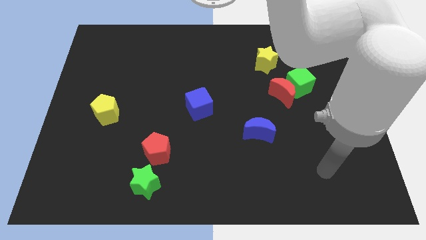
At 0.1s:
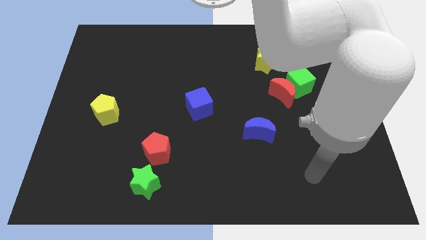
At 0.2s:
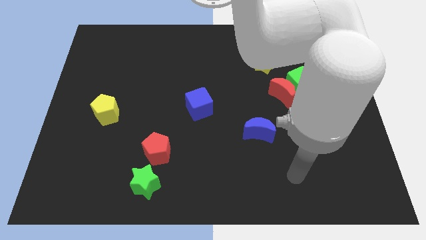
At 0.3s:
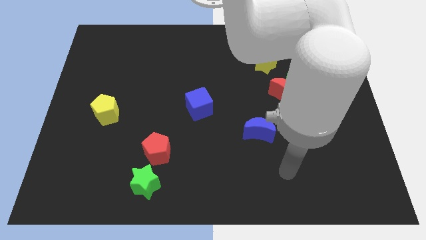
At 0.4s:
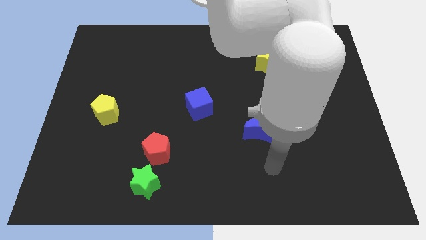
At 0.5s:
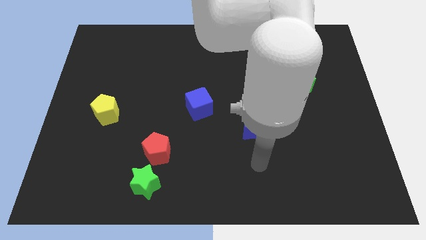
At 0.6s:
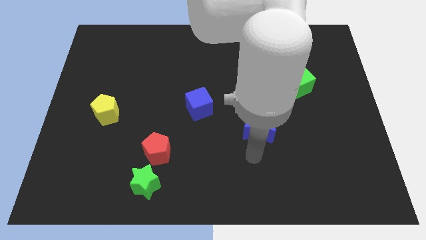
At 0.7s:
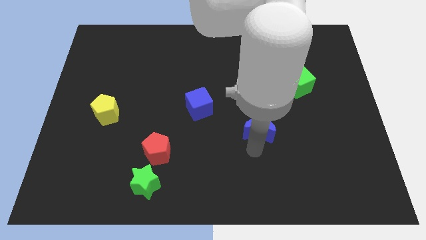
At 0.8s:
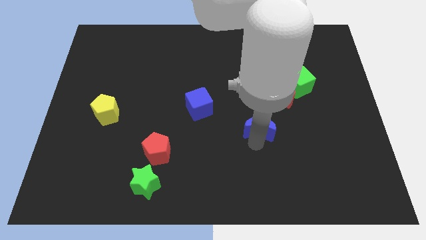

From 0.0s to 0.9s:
move the blue moon diagonally down and to the left of the red moon

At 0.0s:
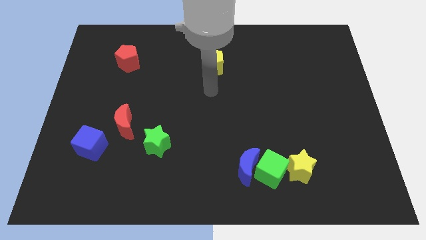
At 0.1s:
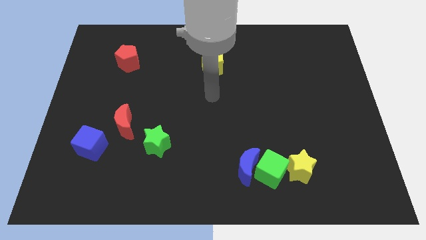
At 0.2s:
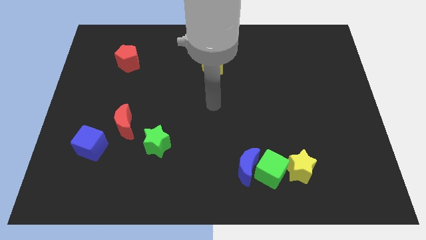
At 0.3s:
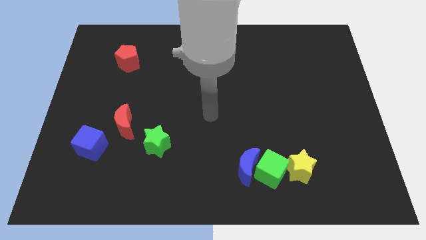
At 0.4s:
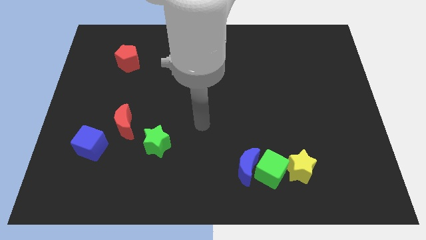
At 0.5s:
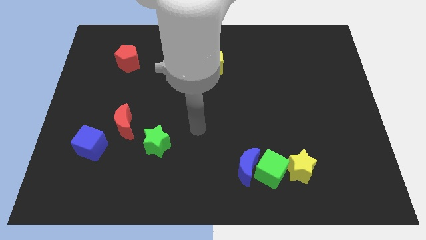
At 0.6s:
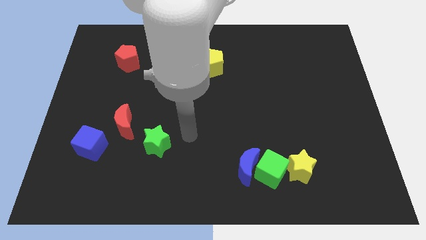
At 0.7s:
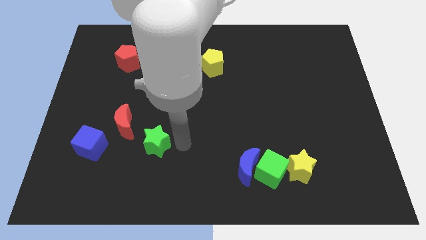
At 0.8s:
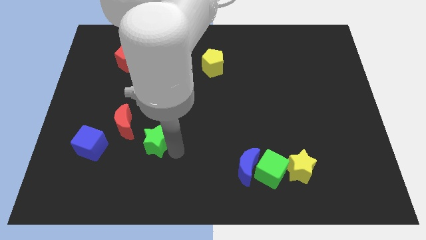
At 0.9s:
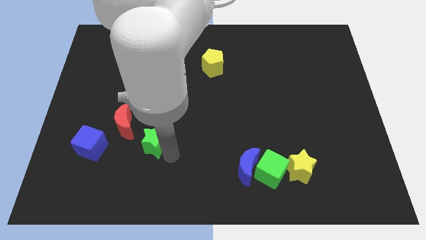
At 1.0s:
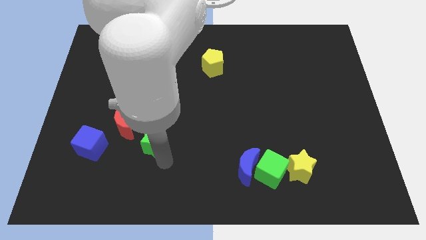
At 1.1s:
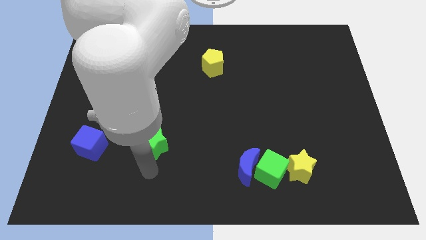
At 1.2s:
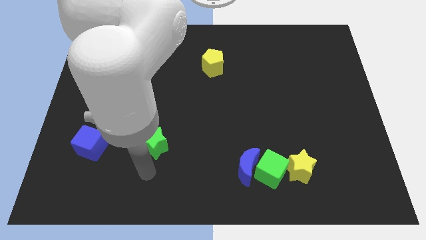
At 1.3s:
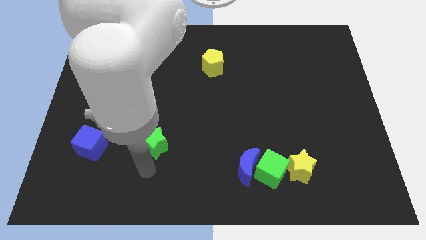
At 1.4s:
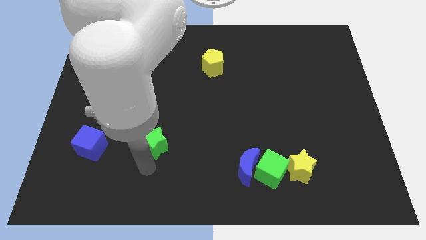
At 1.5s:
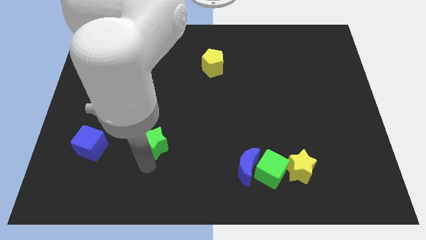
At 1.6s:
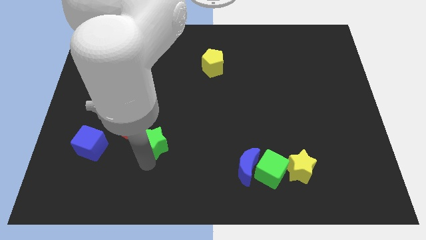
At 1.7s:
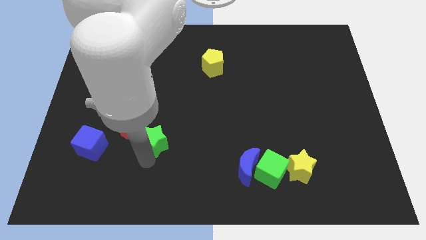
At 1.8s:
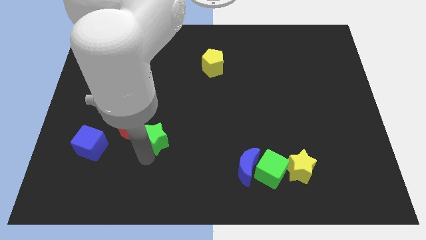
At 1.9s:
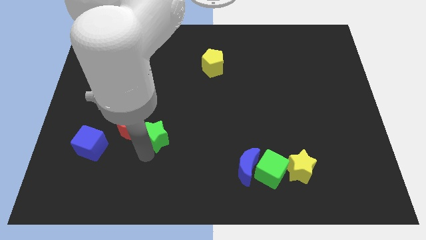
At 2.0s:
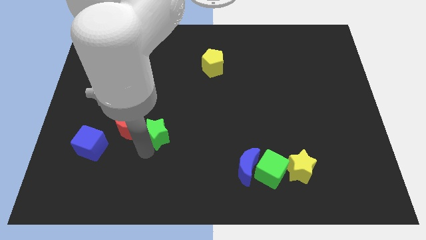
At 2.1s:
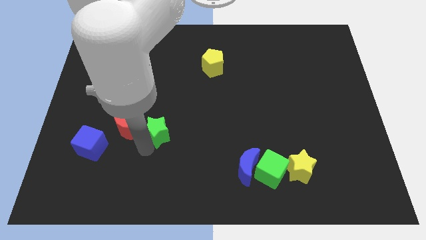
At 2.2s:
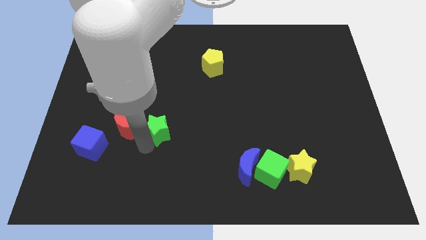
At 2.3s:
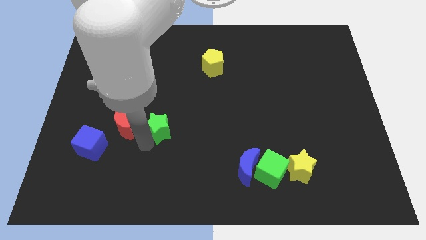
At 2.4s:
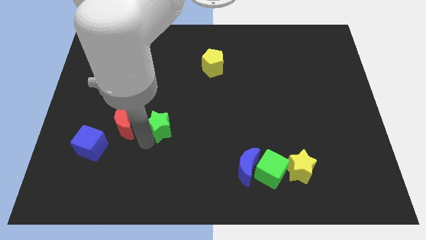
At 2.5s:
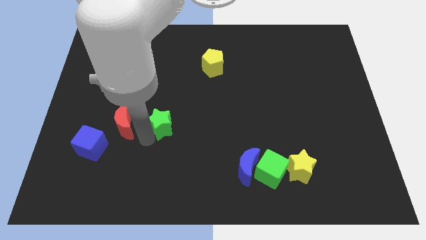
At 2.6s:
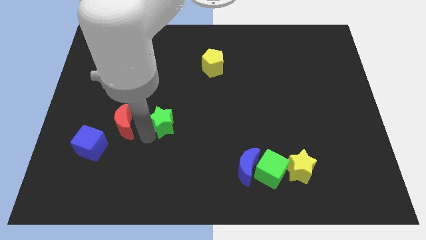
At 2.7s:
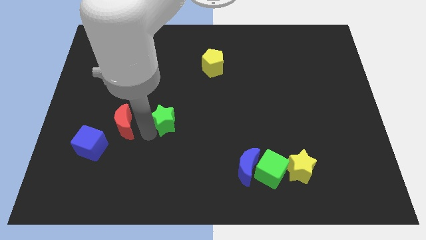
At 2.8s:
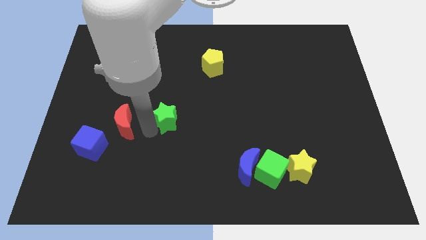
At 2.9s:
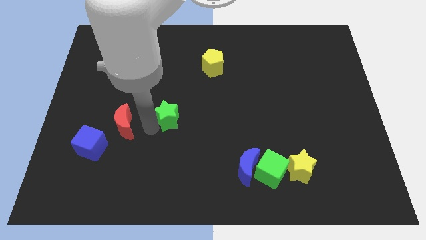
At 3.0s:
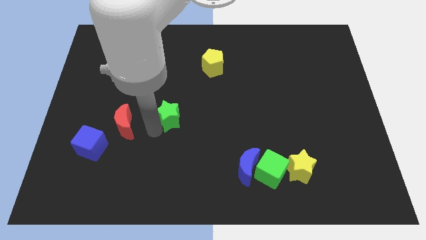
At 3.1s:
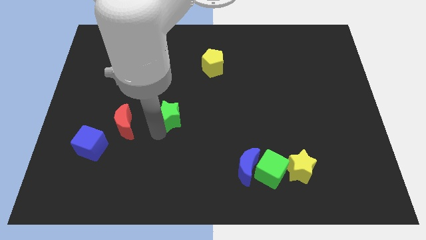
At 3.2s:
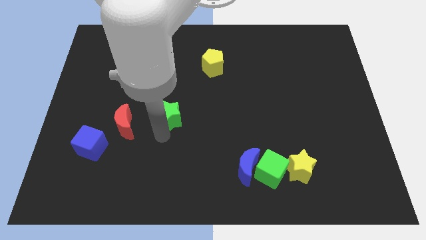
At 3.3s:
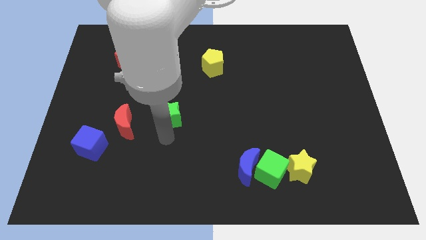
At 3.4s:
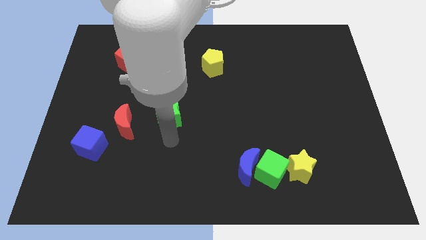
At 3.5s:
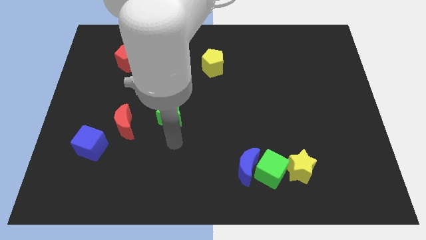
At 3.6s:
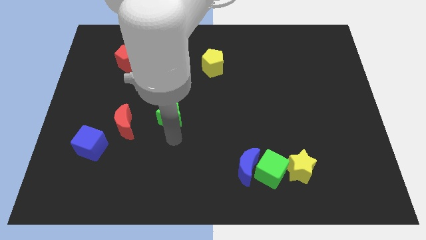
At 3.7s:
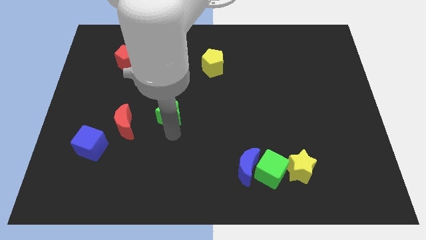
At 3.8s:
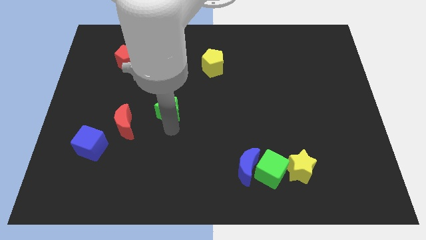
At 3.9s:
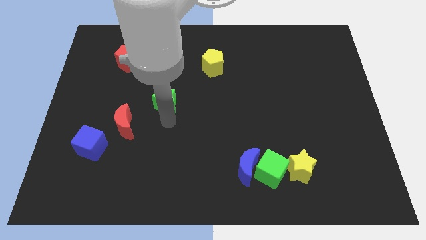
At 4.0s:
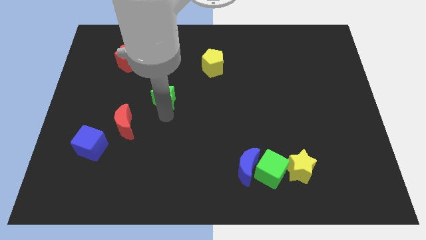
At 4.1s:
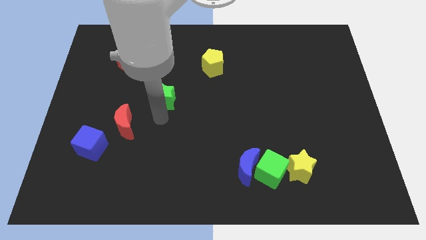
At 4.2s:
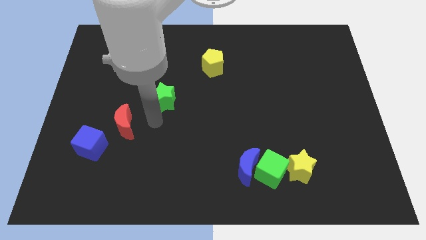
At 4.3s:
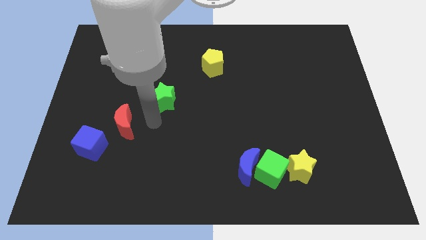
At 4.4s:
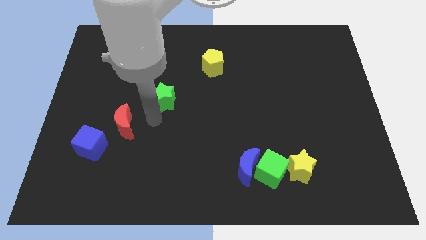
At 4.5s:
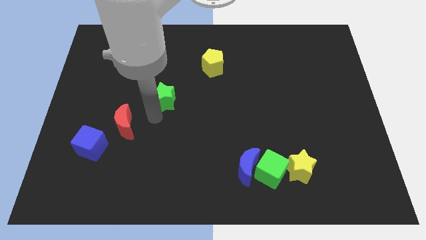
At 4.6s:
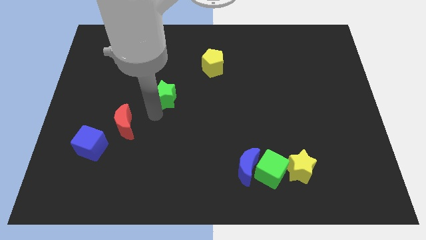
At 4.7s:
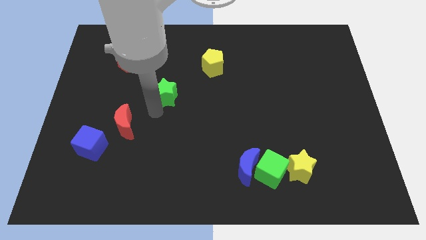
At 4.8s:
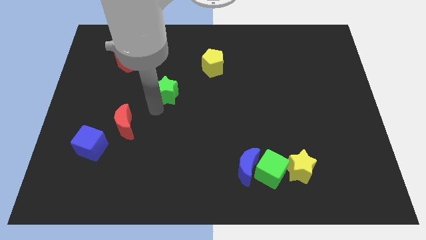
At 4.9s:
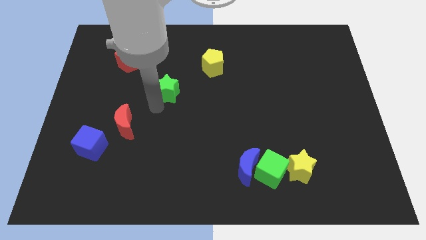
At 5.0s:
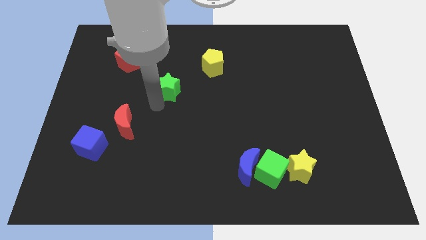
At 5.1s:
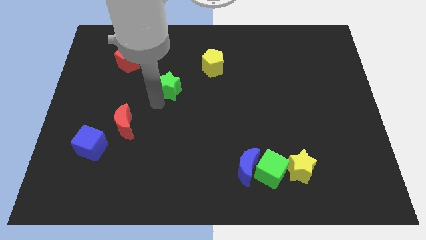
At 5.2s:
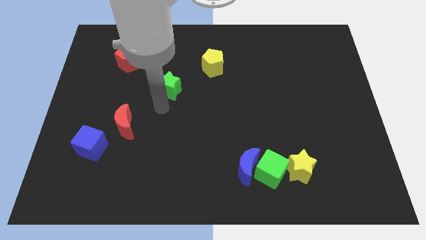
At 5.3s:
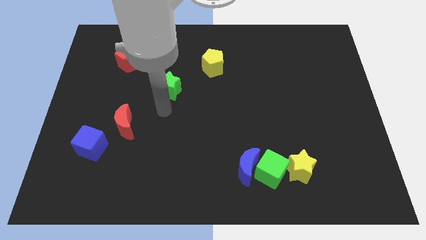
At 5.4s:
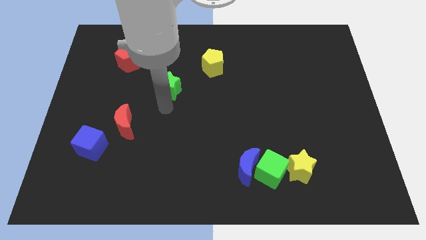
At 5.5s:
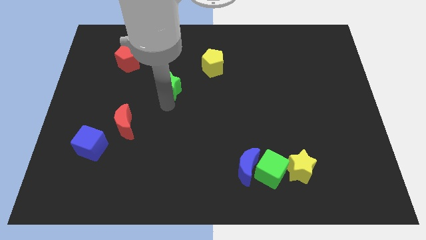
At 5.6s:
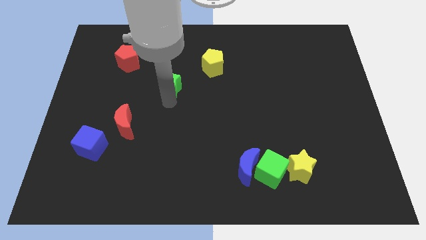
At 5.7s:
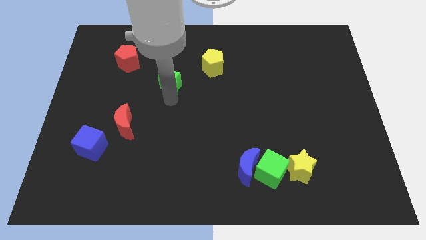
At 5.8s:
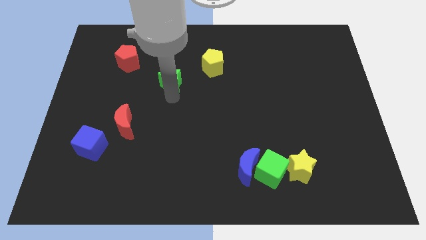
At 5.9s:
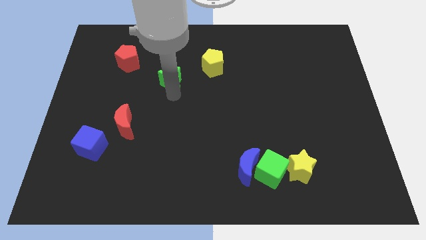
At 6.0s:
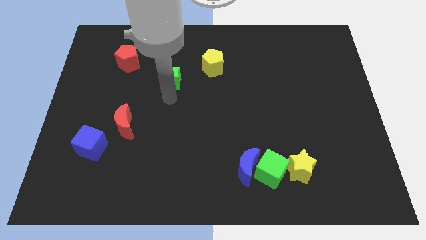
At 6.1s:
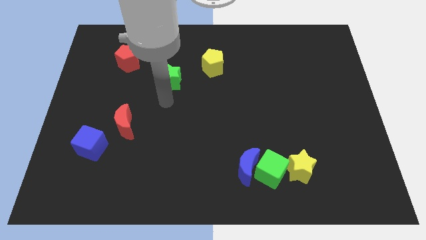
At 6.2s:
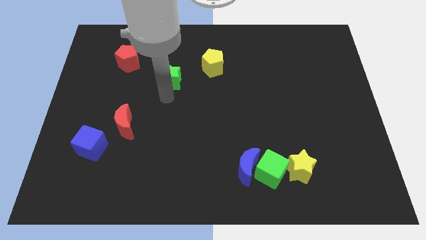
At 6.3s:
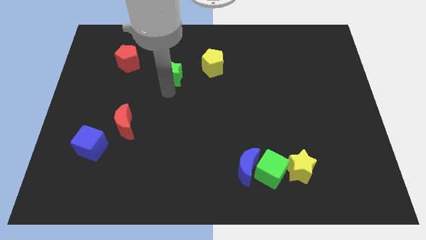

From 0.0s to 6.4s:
push the green star to the left side of the yellow pentagon

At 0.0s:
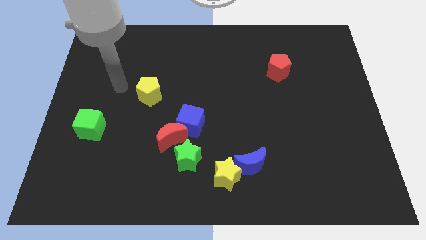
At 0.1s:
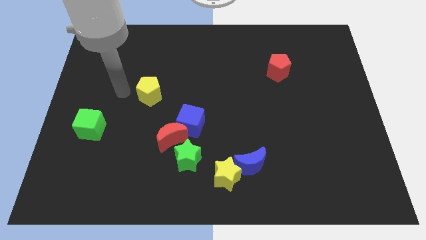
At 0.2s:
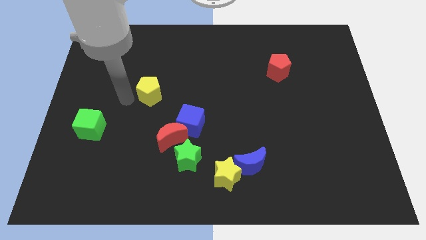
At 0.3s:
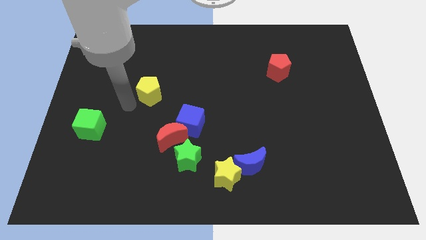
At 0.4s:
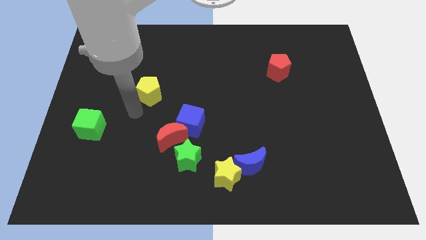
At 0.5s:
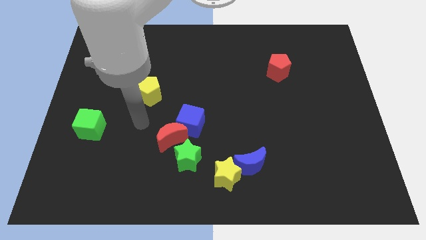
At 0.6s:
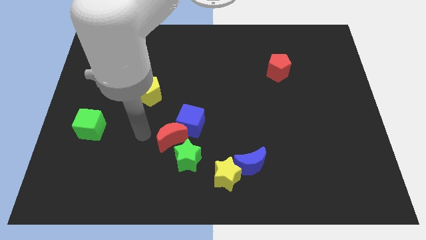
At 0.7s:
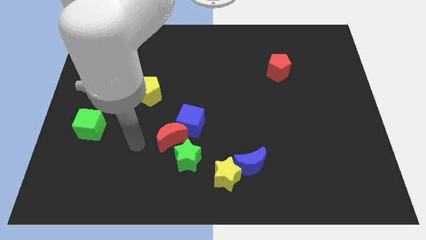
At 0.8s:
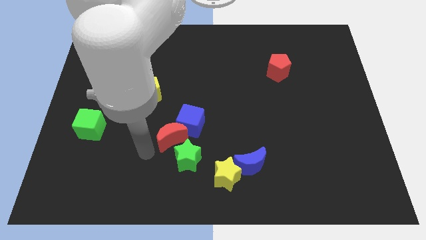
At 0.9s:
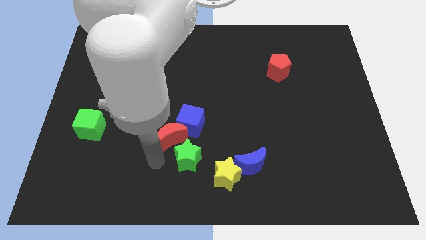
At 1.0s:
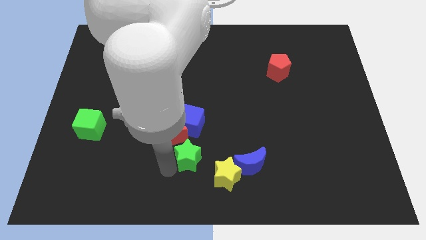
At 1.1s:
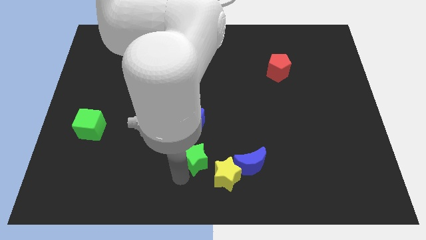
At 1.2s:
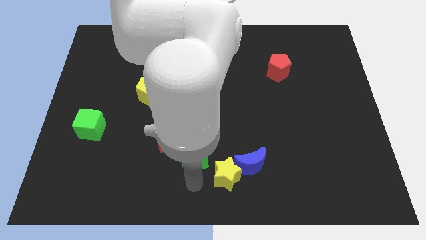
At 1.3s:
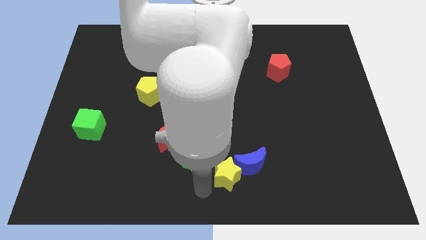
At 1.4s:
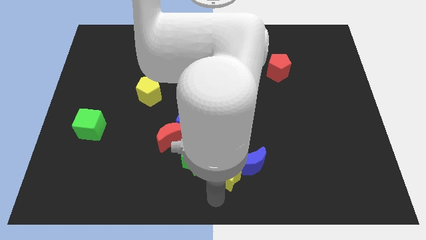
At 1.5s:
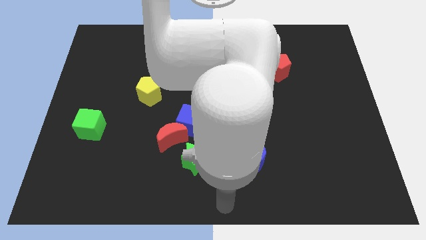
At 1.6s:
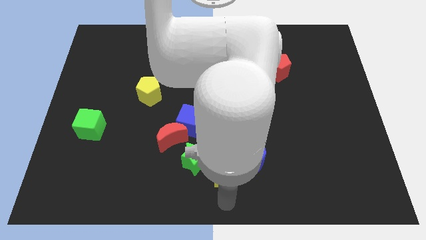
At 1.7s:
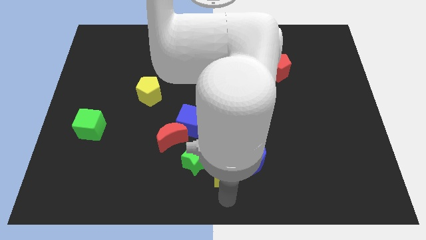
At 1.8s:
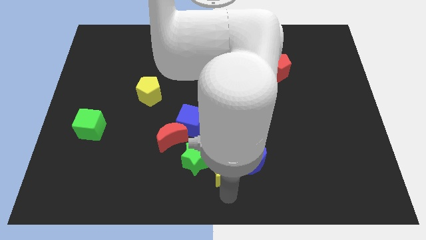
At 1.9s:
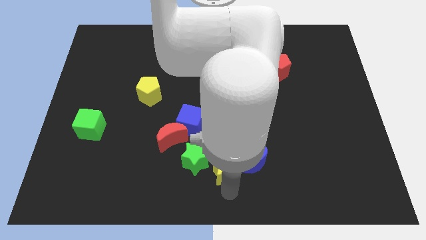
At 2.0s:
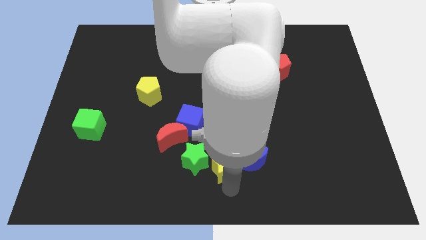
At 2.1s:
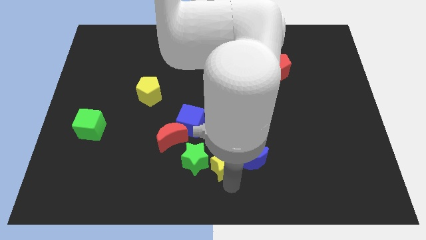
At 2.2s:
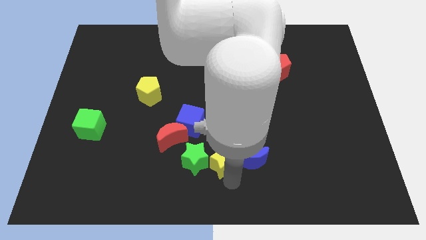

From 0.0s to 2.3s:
slide the yellow star to the top left of the blue moon
